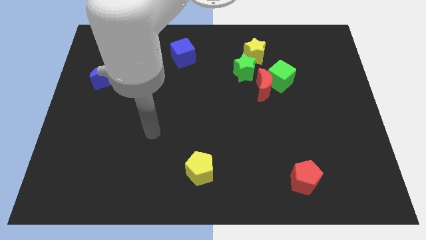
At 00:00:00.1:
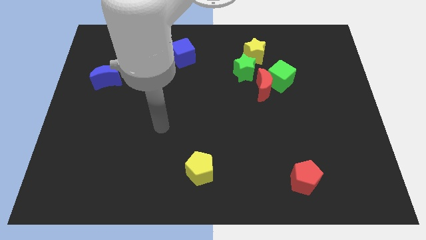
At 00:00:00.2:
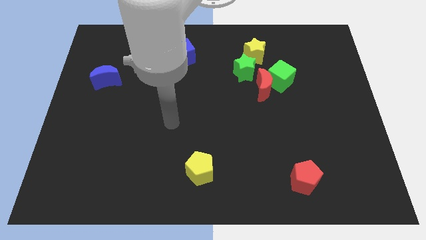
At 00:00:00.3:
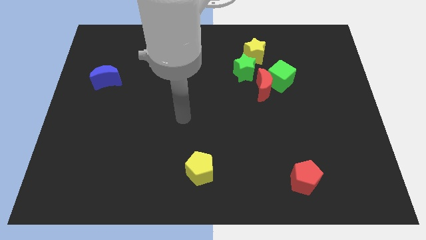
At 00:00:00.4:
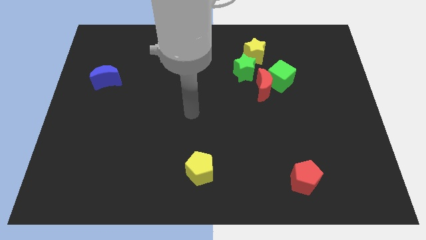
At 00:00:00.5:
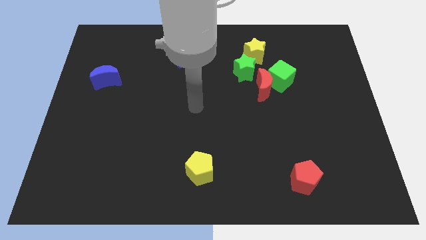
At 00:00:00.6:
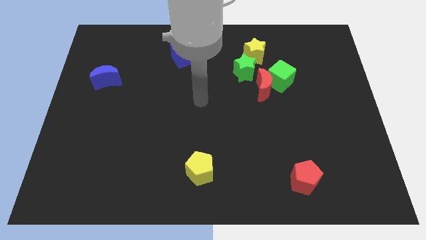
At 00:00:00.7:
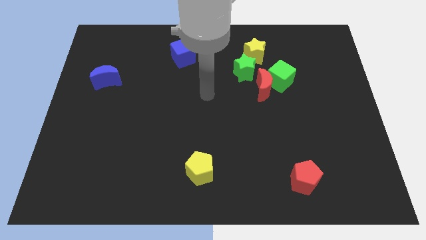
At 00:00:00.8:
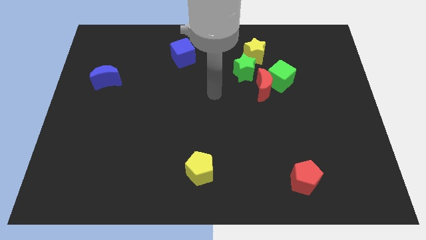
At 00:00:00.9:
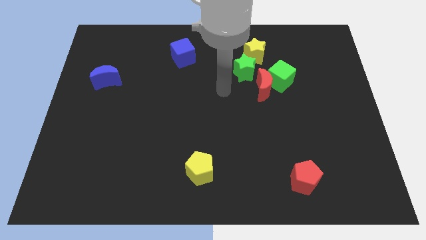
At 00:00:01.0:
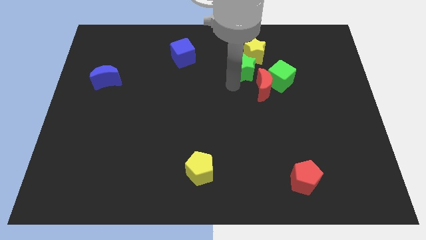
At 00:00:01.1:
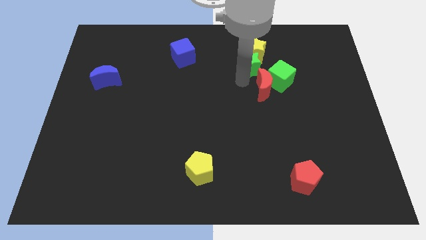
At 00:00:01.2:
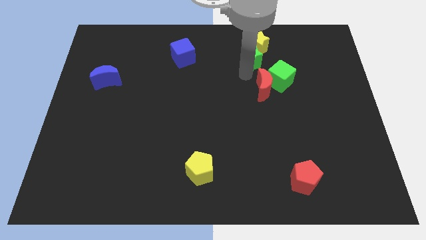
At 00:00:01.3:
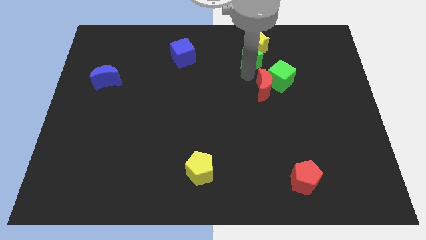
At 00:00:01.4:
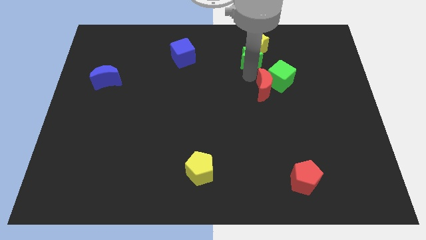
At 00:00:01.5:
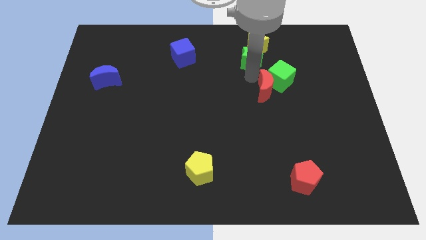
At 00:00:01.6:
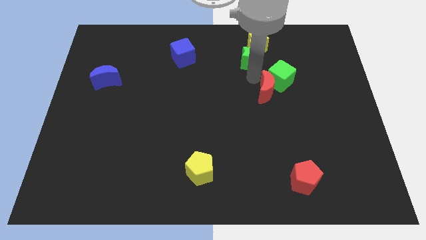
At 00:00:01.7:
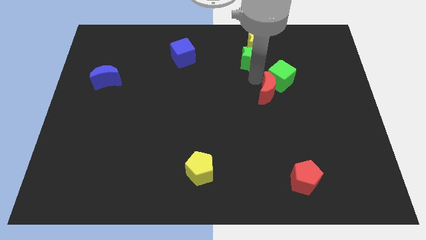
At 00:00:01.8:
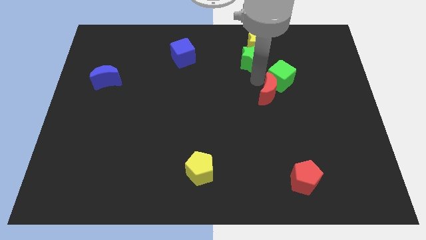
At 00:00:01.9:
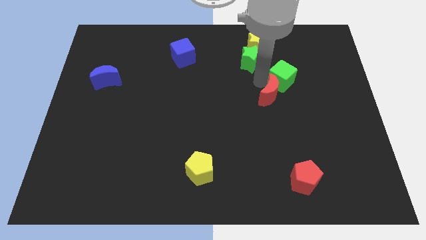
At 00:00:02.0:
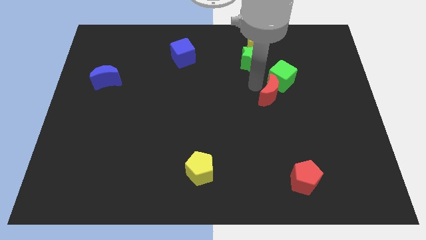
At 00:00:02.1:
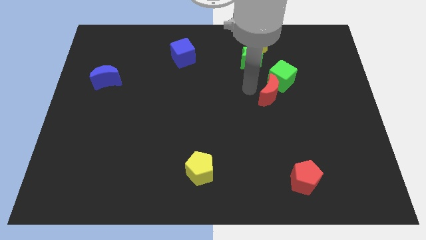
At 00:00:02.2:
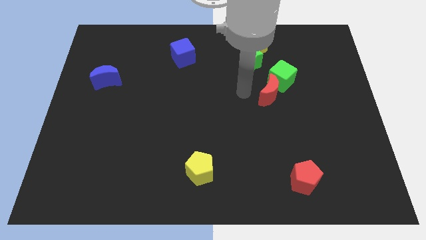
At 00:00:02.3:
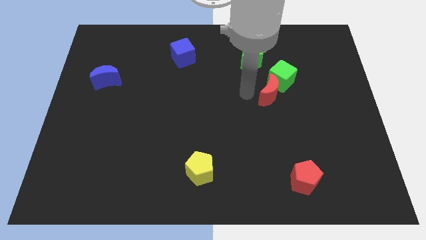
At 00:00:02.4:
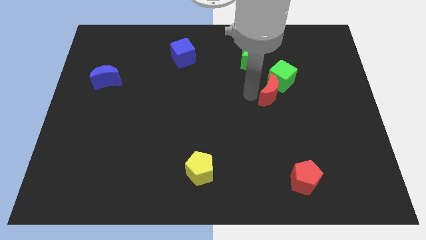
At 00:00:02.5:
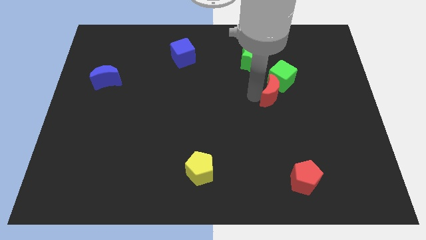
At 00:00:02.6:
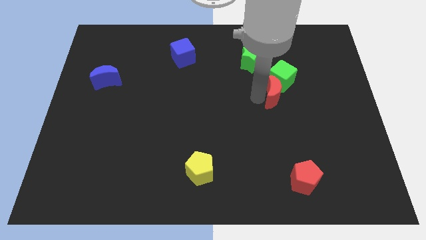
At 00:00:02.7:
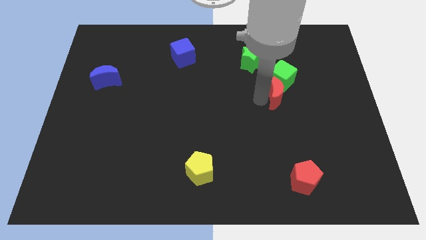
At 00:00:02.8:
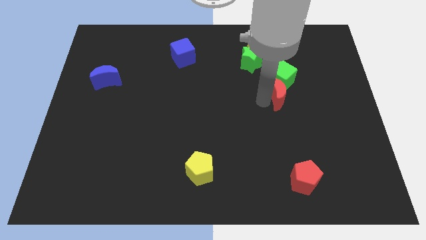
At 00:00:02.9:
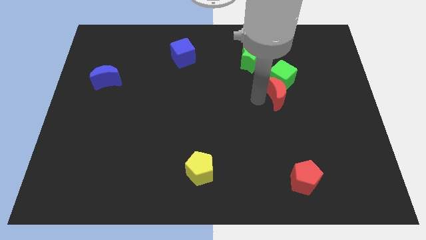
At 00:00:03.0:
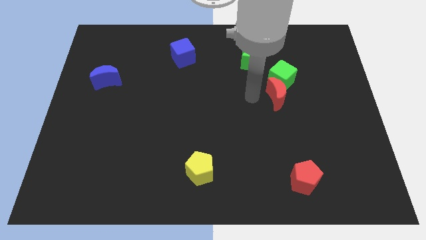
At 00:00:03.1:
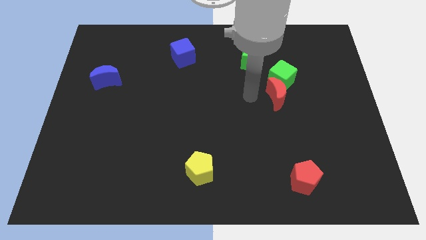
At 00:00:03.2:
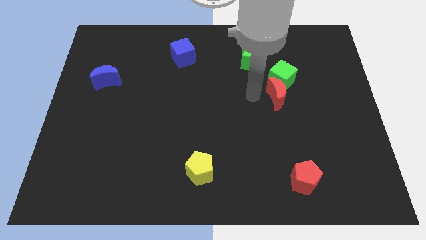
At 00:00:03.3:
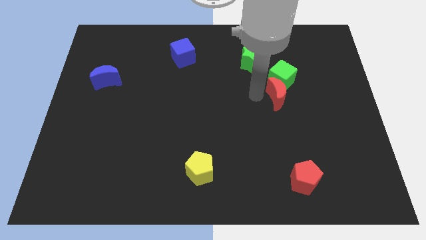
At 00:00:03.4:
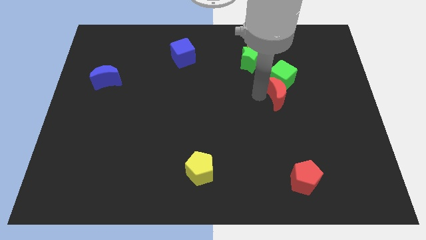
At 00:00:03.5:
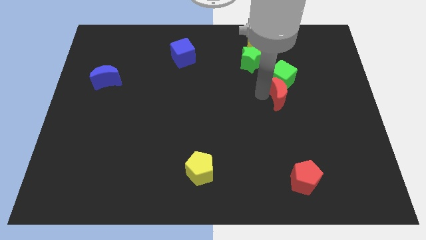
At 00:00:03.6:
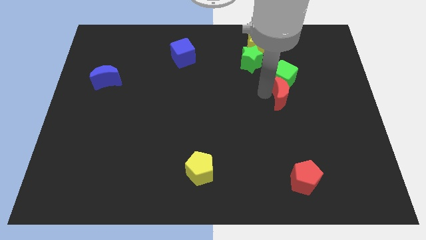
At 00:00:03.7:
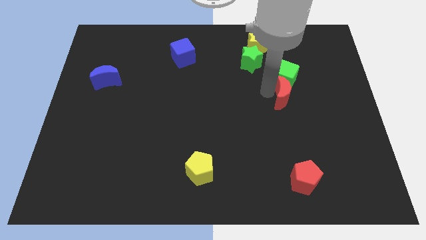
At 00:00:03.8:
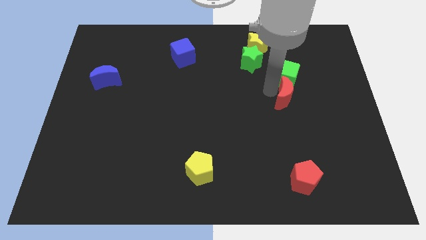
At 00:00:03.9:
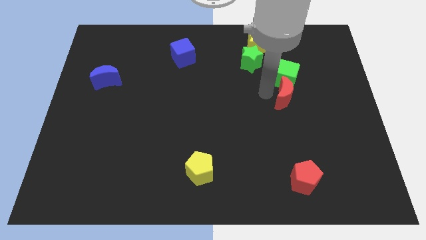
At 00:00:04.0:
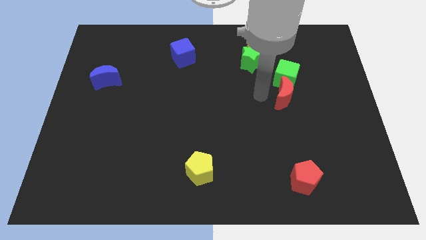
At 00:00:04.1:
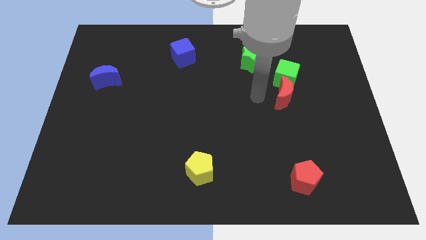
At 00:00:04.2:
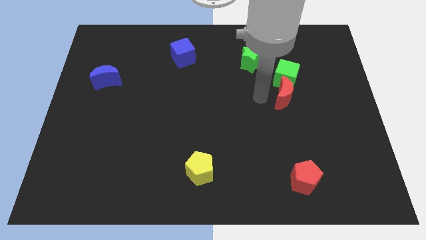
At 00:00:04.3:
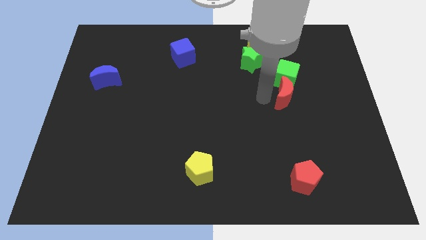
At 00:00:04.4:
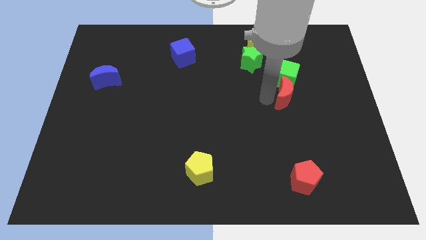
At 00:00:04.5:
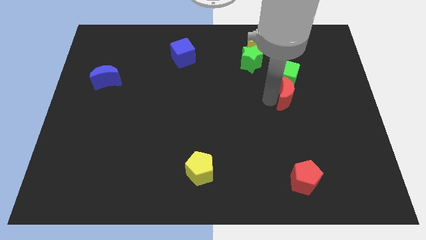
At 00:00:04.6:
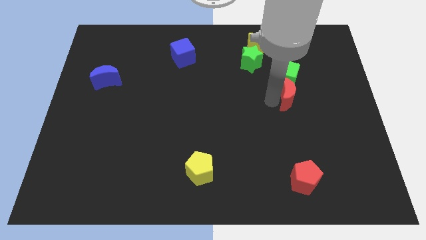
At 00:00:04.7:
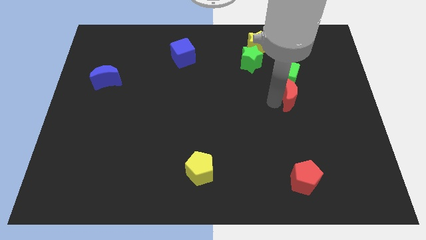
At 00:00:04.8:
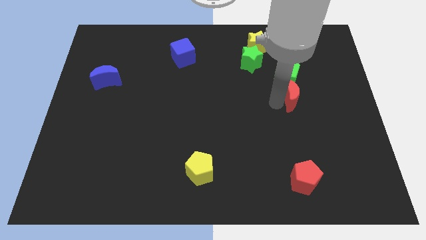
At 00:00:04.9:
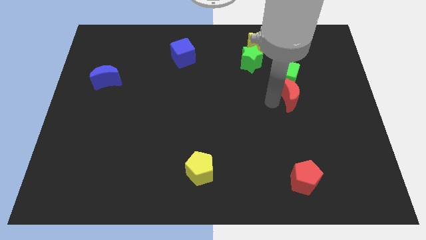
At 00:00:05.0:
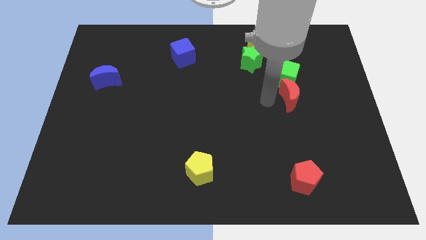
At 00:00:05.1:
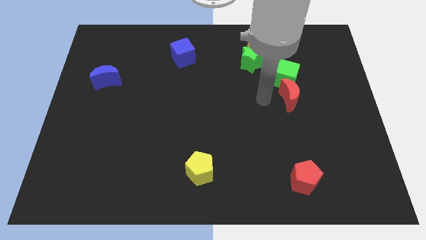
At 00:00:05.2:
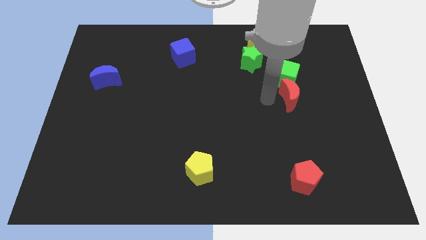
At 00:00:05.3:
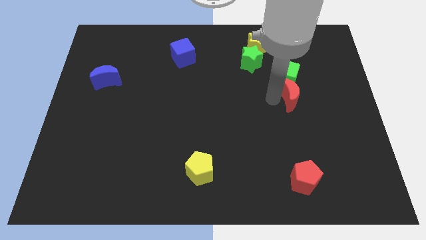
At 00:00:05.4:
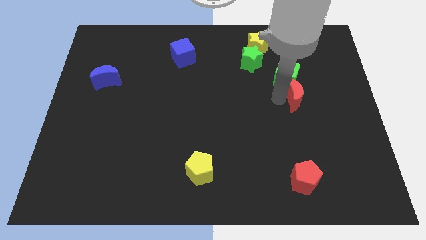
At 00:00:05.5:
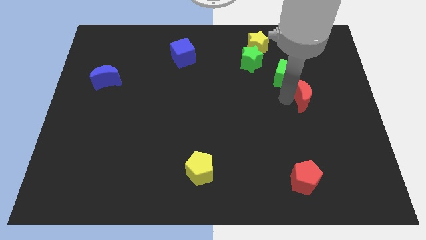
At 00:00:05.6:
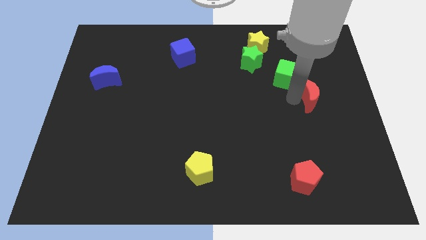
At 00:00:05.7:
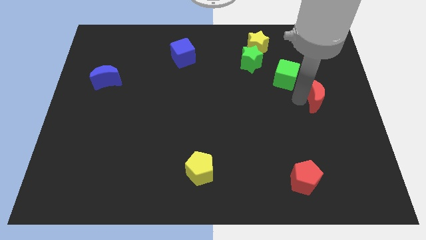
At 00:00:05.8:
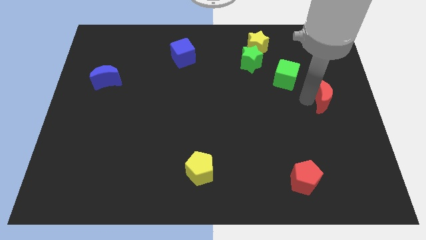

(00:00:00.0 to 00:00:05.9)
put the red moon to the right side

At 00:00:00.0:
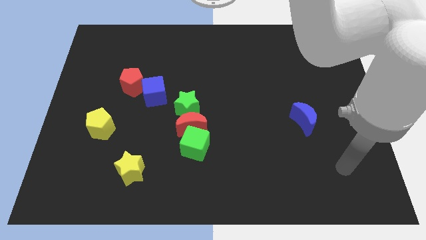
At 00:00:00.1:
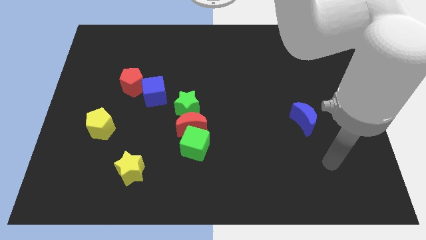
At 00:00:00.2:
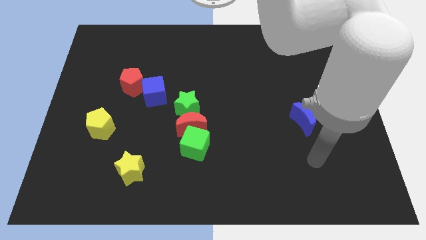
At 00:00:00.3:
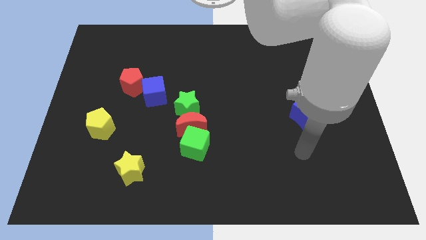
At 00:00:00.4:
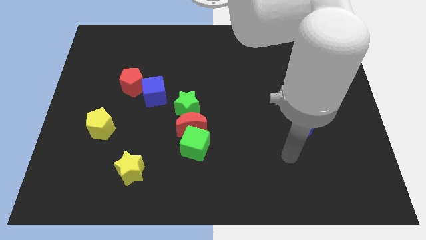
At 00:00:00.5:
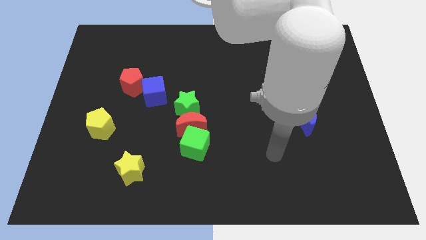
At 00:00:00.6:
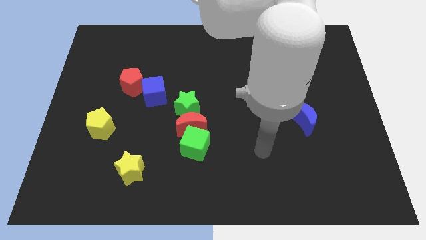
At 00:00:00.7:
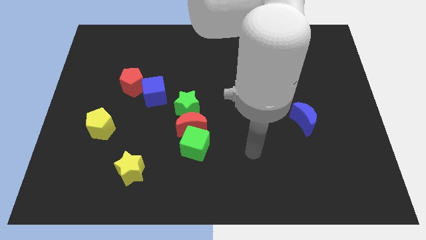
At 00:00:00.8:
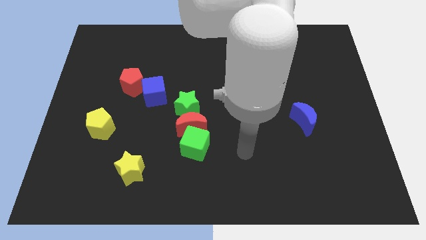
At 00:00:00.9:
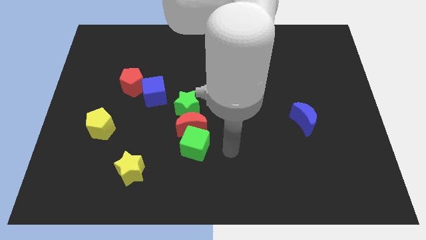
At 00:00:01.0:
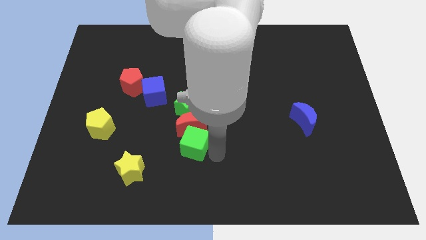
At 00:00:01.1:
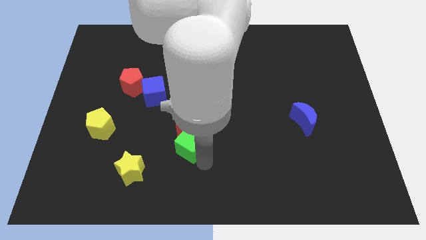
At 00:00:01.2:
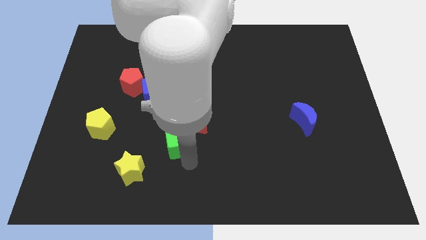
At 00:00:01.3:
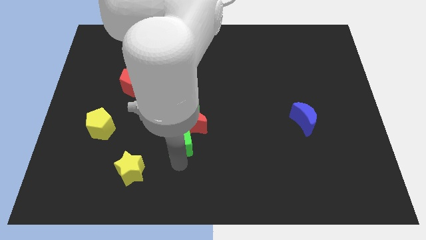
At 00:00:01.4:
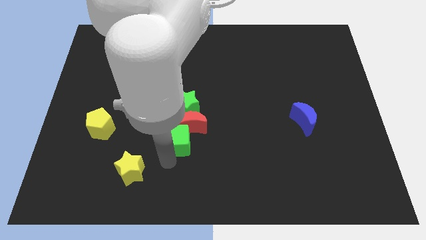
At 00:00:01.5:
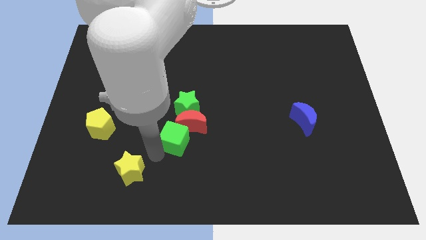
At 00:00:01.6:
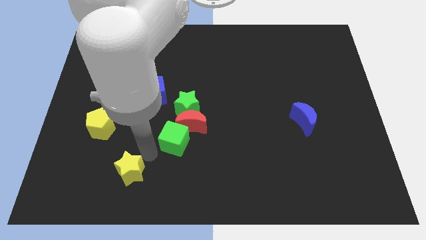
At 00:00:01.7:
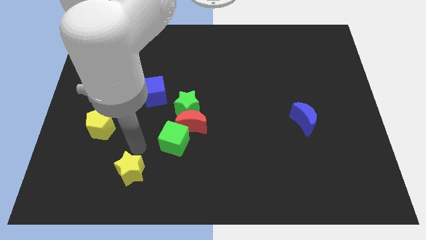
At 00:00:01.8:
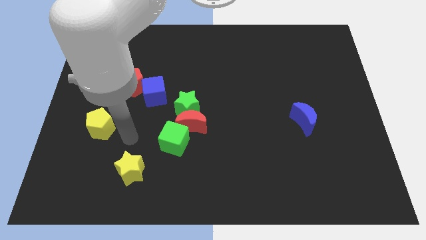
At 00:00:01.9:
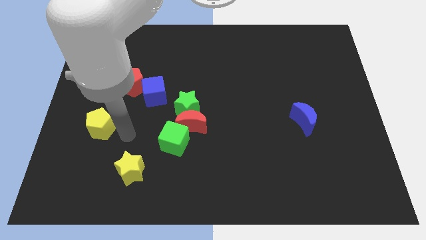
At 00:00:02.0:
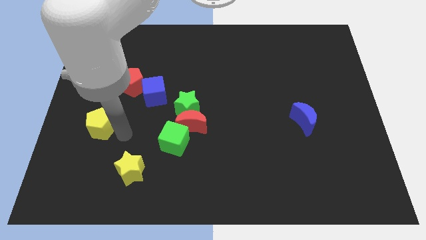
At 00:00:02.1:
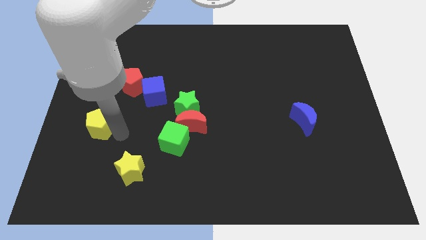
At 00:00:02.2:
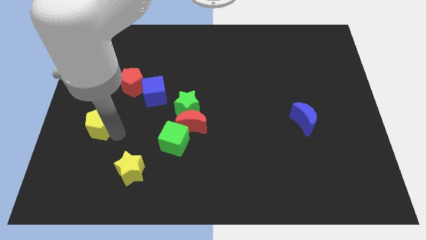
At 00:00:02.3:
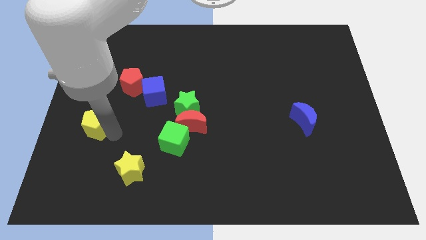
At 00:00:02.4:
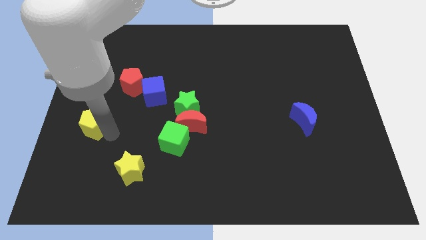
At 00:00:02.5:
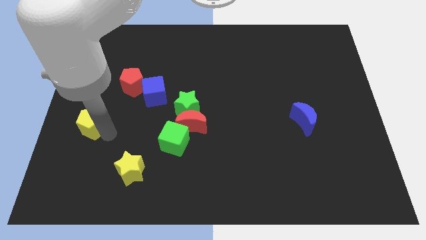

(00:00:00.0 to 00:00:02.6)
move the yellow pentagon to the center left
